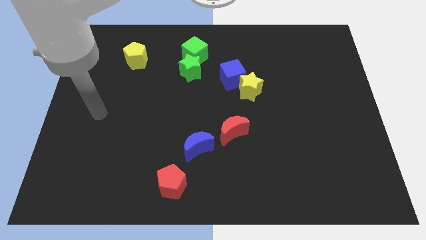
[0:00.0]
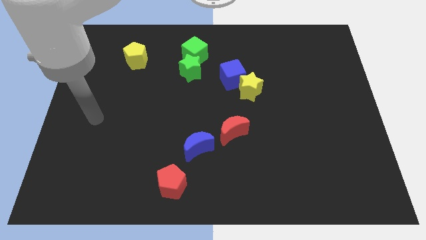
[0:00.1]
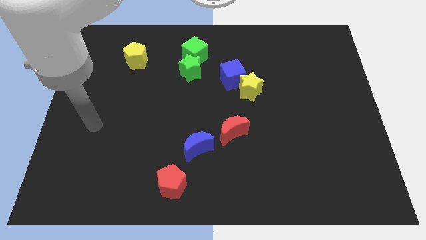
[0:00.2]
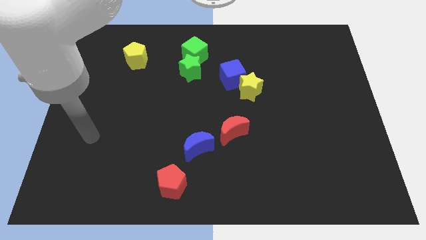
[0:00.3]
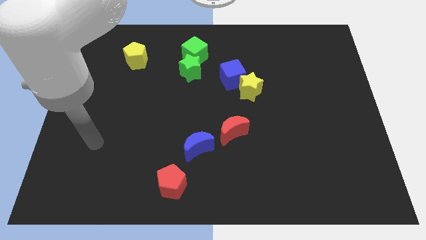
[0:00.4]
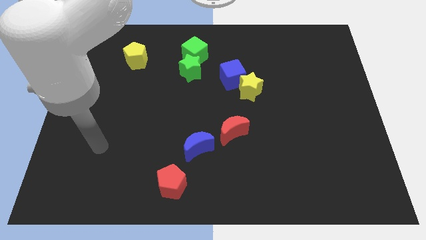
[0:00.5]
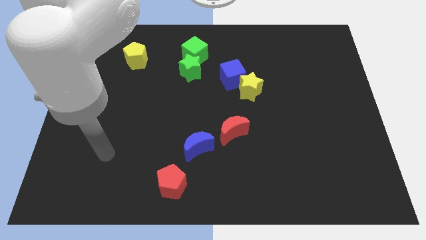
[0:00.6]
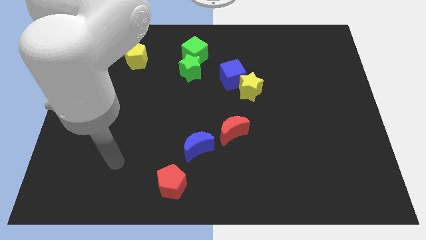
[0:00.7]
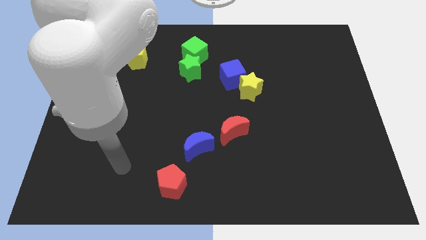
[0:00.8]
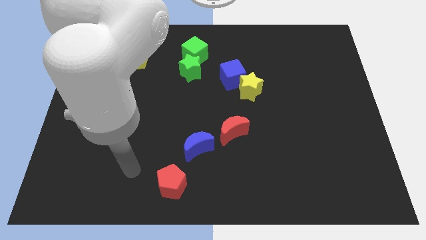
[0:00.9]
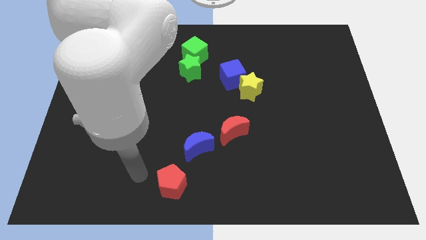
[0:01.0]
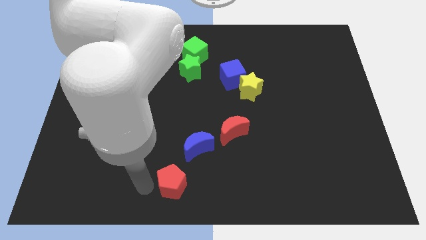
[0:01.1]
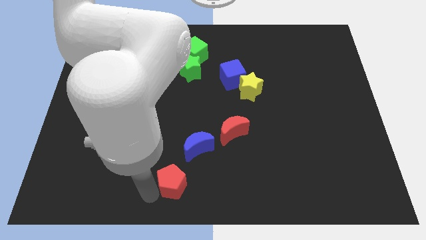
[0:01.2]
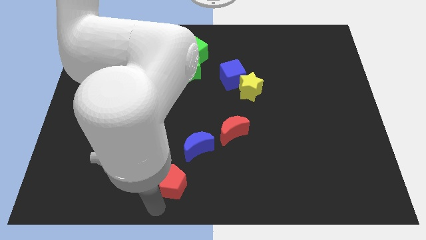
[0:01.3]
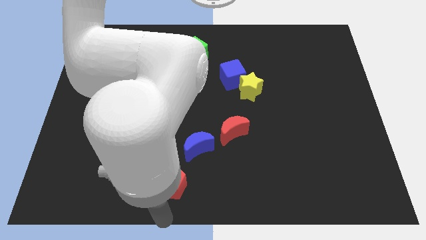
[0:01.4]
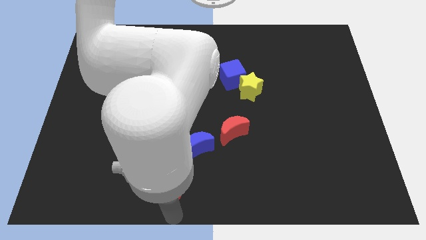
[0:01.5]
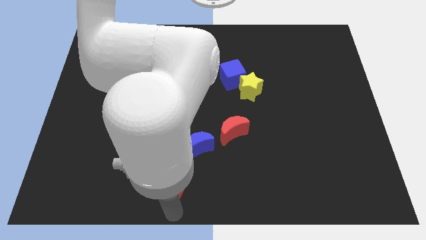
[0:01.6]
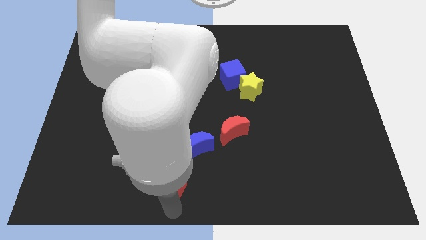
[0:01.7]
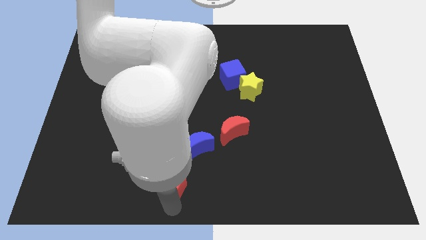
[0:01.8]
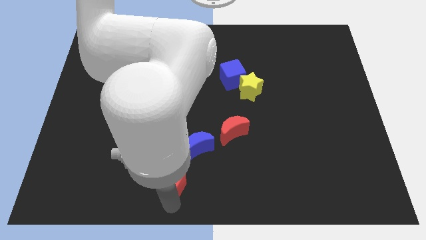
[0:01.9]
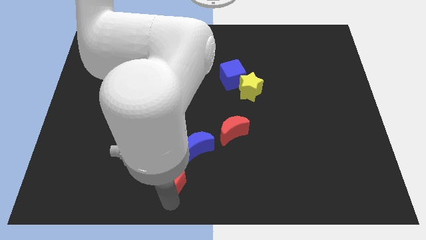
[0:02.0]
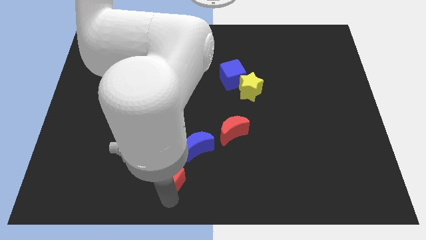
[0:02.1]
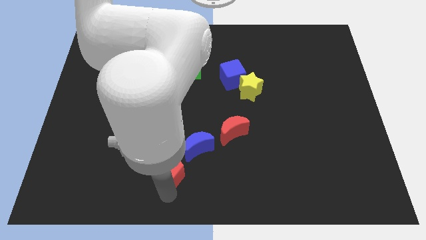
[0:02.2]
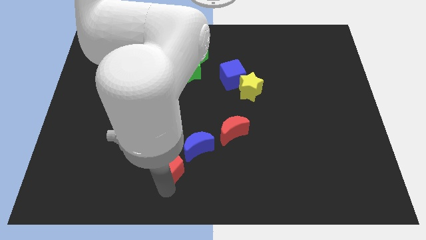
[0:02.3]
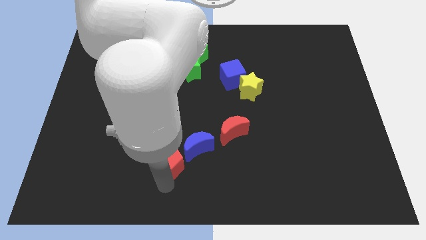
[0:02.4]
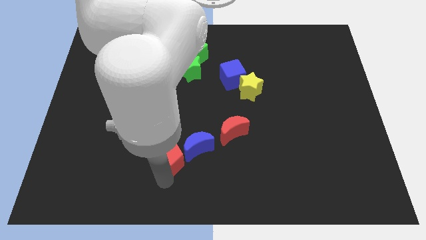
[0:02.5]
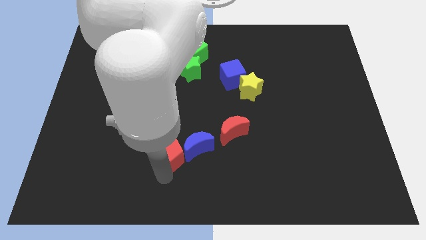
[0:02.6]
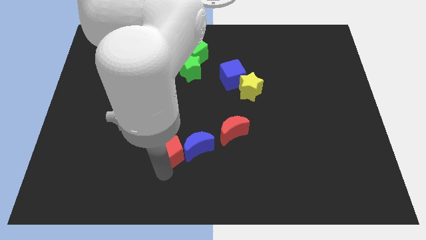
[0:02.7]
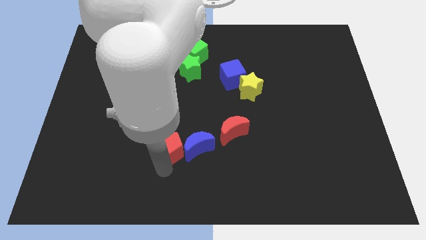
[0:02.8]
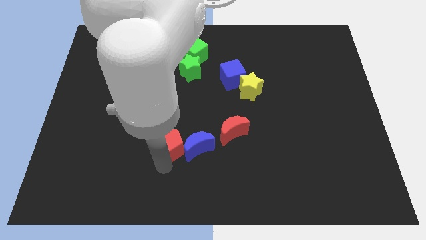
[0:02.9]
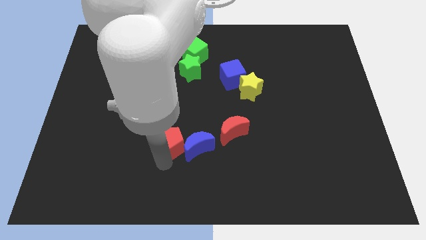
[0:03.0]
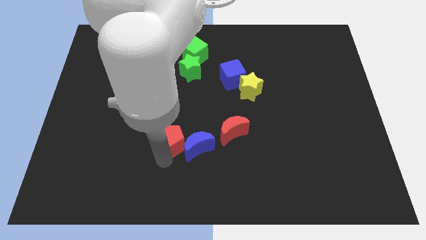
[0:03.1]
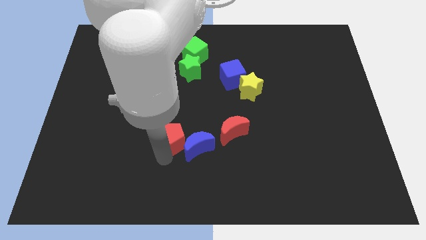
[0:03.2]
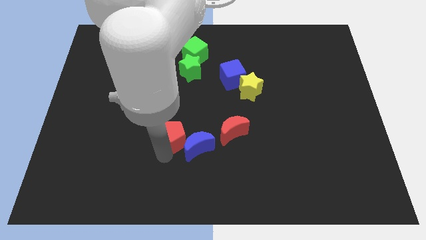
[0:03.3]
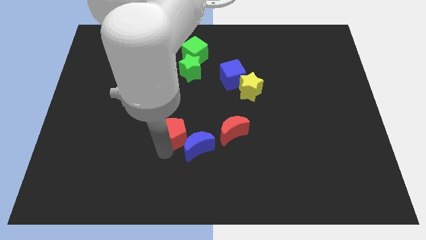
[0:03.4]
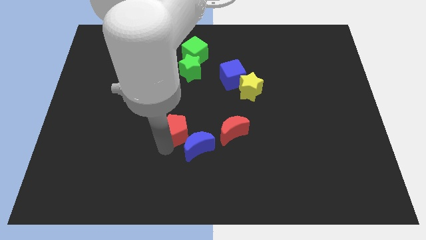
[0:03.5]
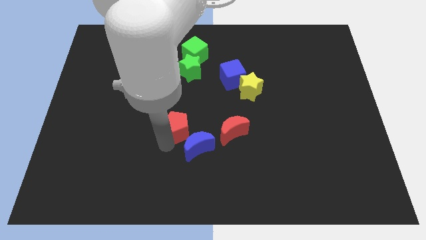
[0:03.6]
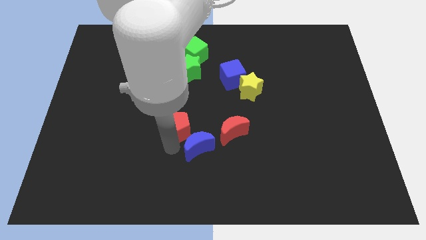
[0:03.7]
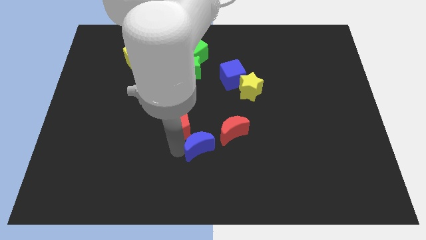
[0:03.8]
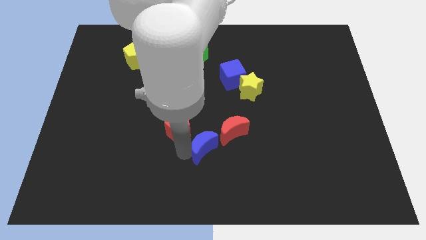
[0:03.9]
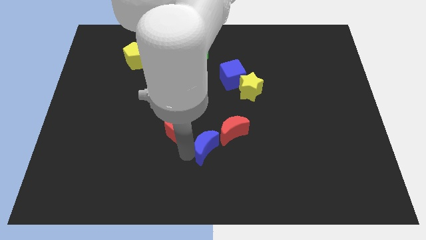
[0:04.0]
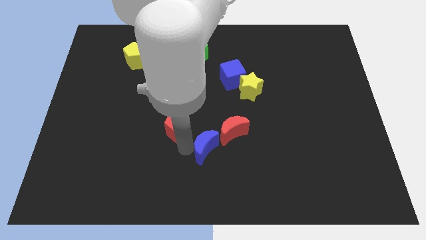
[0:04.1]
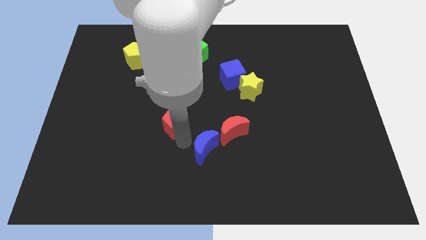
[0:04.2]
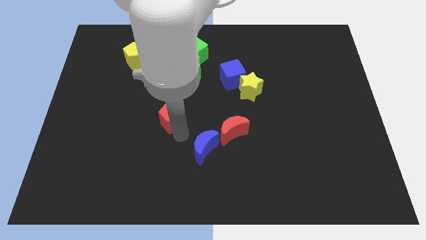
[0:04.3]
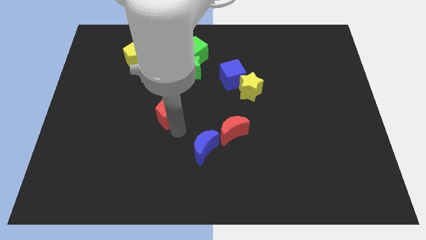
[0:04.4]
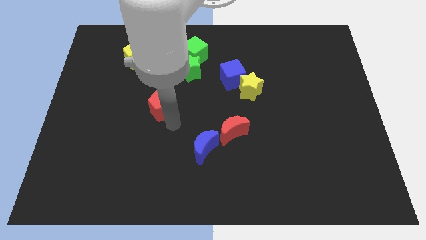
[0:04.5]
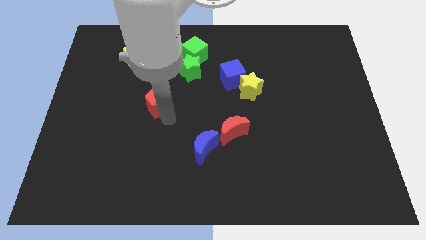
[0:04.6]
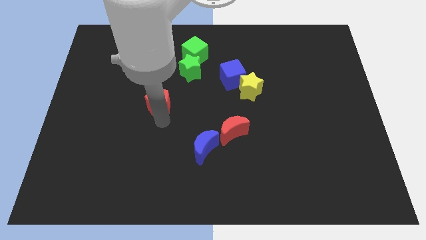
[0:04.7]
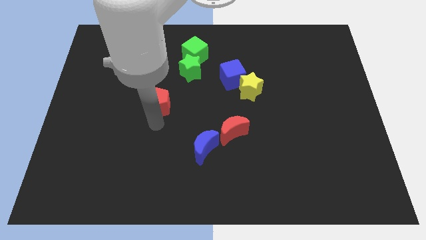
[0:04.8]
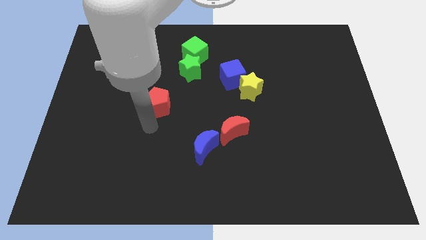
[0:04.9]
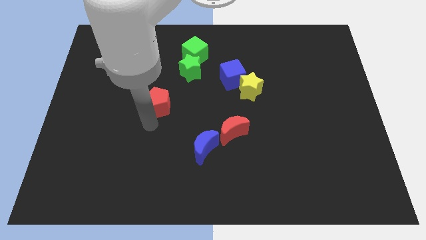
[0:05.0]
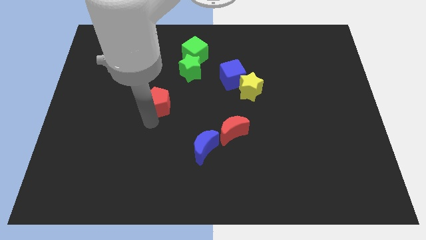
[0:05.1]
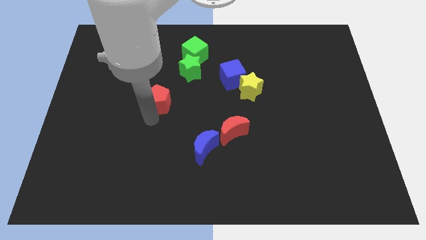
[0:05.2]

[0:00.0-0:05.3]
put the red pentagon to the bottom left side of the green star
